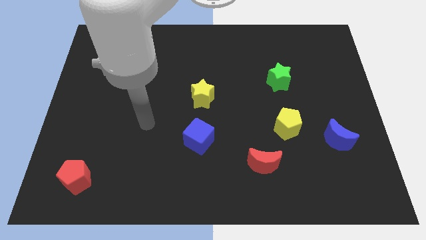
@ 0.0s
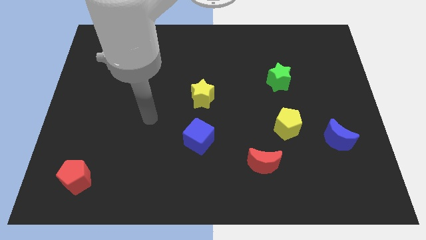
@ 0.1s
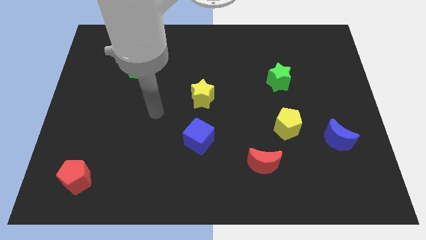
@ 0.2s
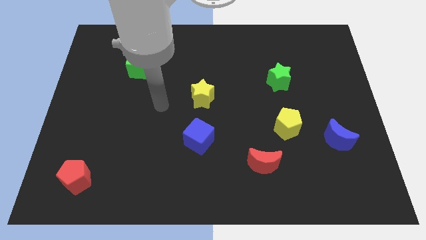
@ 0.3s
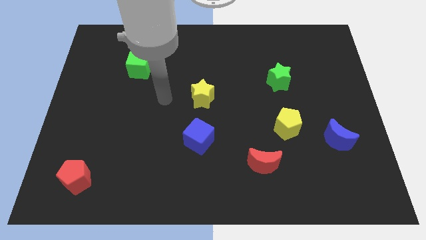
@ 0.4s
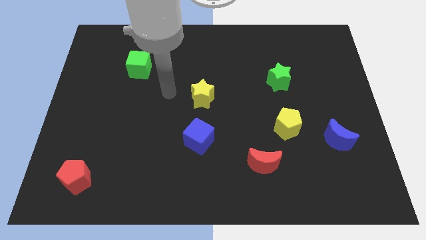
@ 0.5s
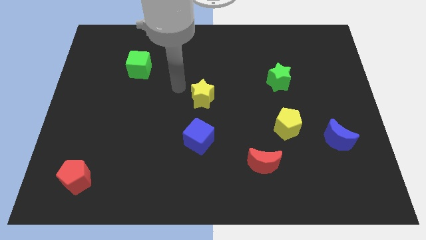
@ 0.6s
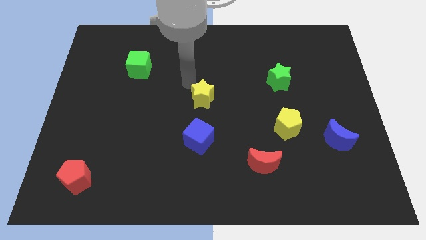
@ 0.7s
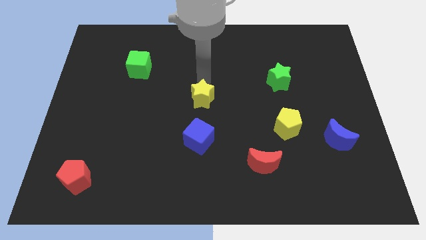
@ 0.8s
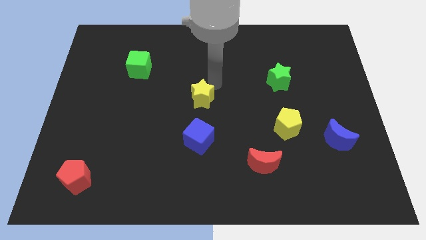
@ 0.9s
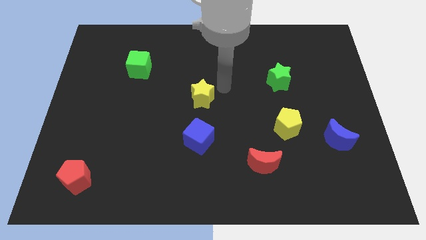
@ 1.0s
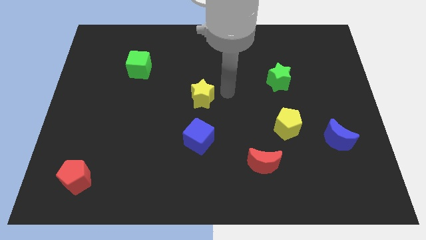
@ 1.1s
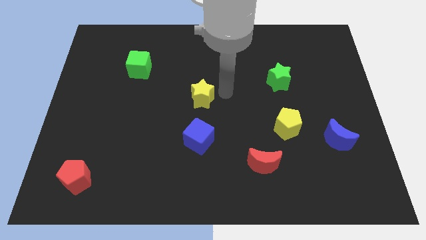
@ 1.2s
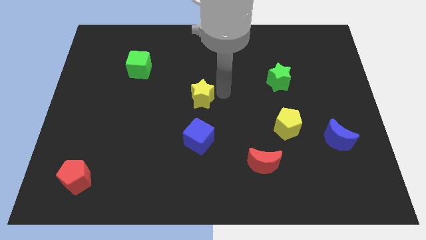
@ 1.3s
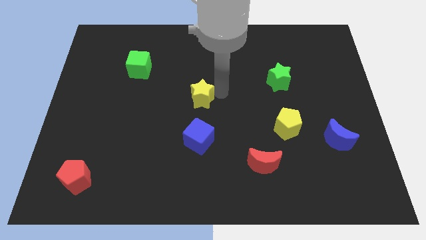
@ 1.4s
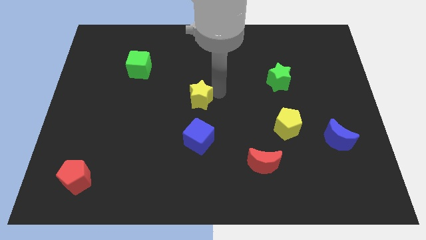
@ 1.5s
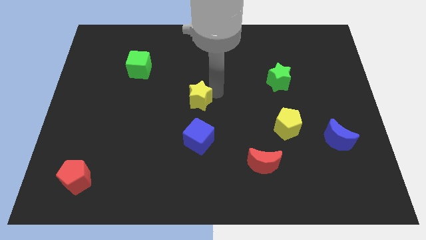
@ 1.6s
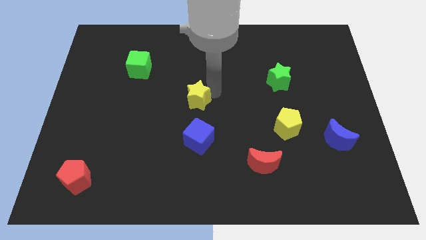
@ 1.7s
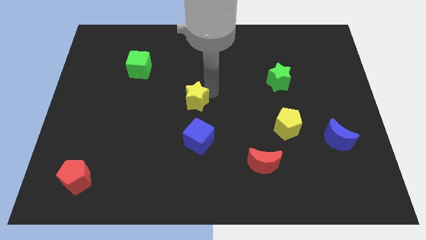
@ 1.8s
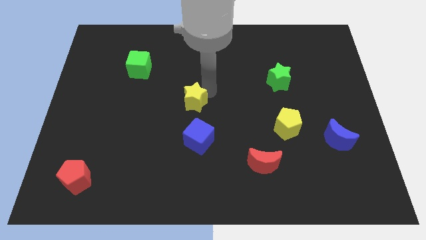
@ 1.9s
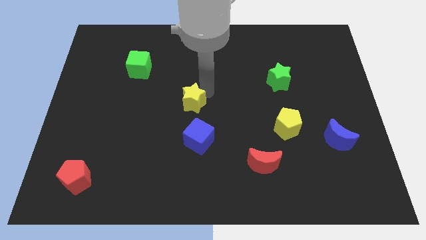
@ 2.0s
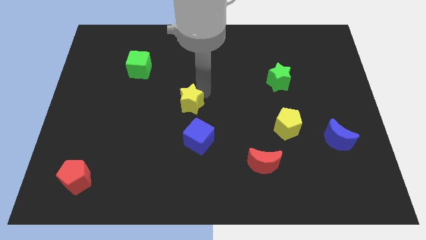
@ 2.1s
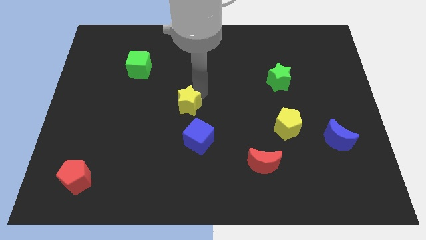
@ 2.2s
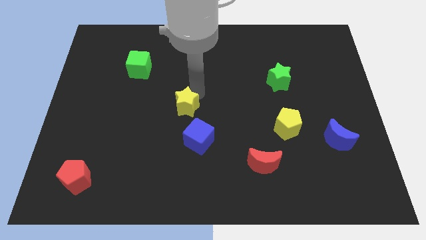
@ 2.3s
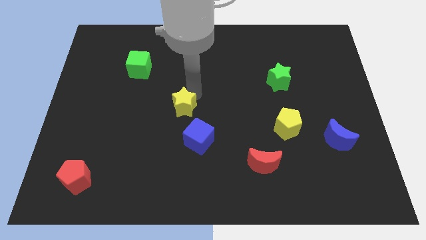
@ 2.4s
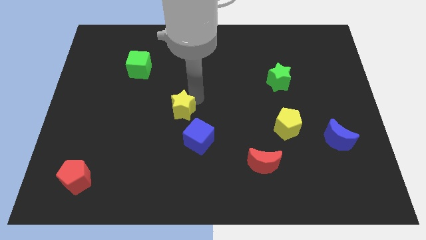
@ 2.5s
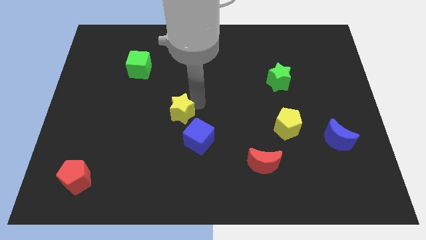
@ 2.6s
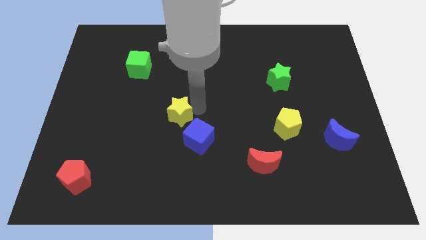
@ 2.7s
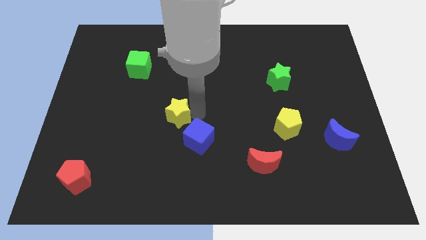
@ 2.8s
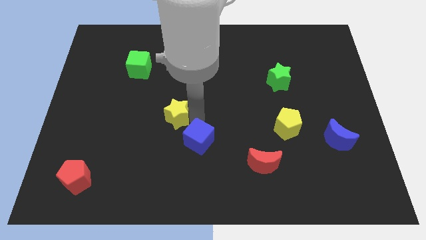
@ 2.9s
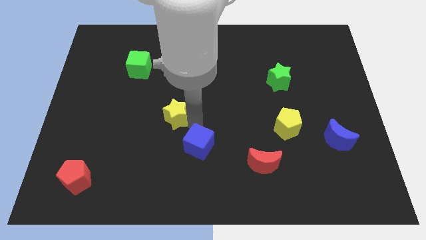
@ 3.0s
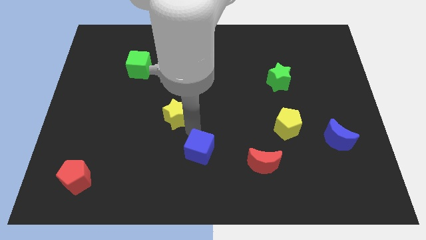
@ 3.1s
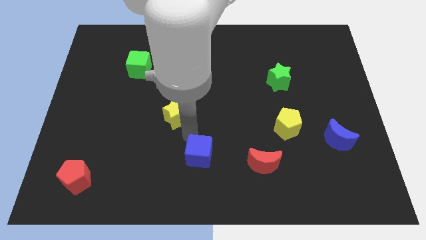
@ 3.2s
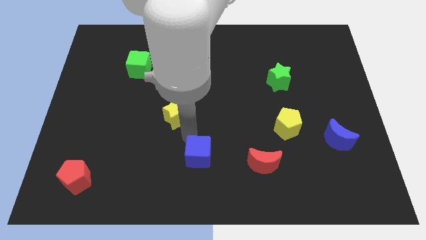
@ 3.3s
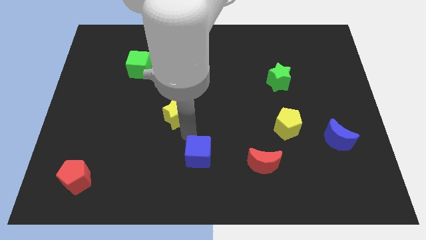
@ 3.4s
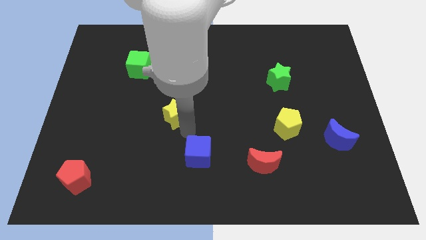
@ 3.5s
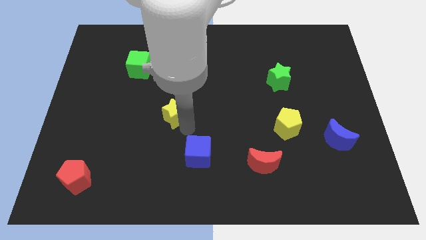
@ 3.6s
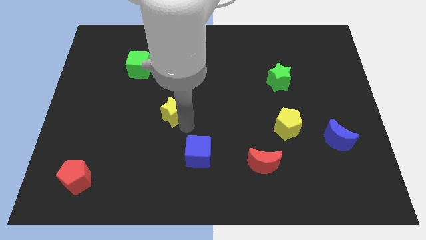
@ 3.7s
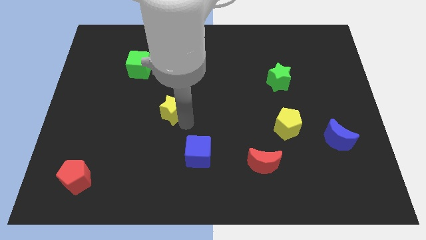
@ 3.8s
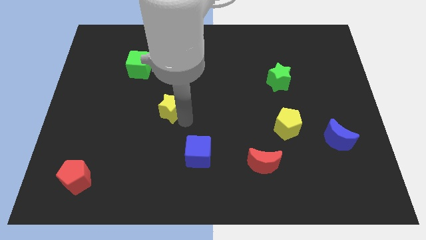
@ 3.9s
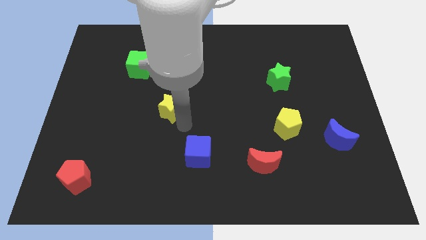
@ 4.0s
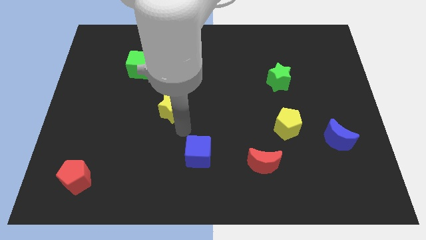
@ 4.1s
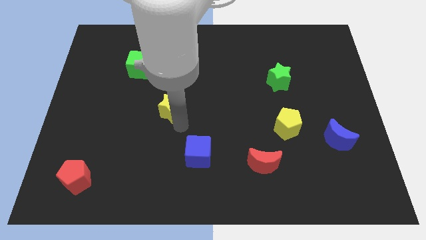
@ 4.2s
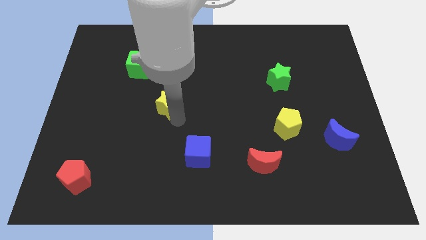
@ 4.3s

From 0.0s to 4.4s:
slightly slide the yellow star left

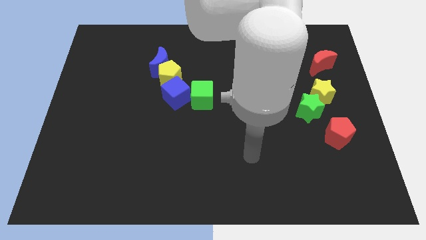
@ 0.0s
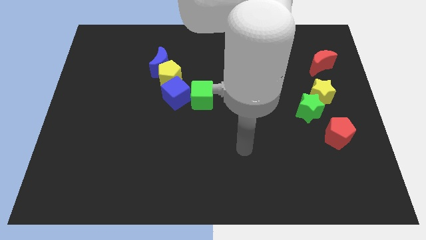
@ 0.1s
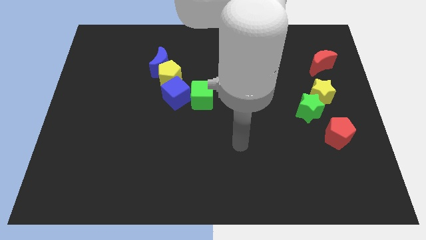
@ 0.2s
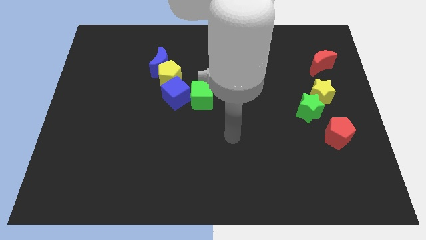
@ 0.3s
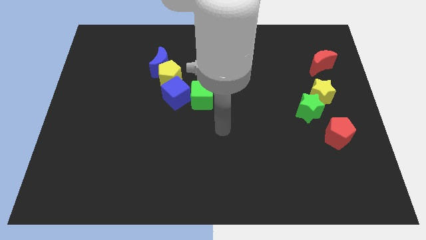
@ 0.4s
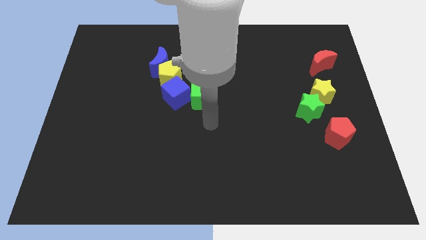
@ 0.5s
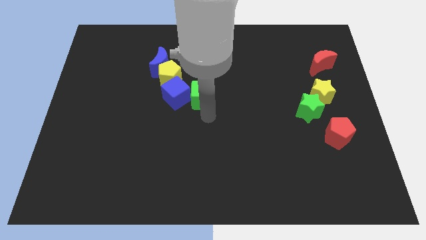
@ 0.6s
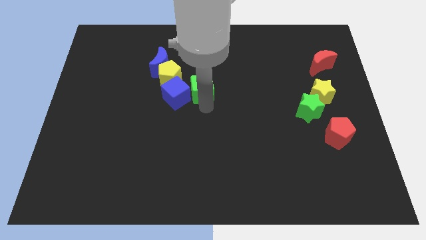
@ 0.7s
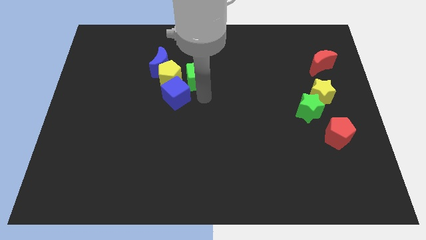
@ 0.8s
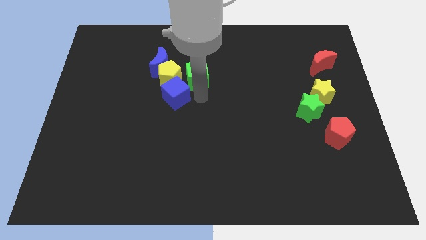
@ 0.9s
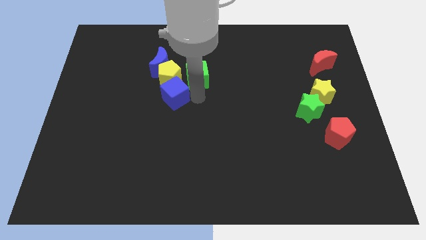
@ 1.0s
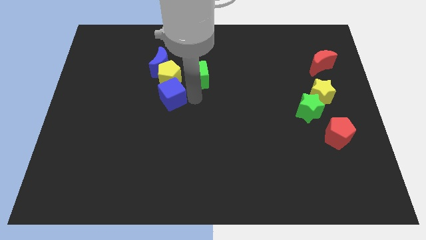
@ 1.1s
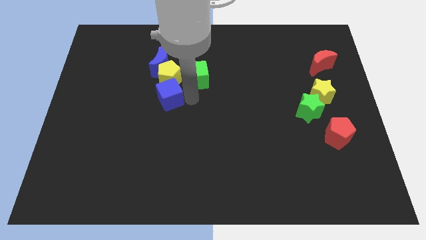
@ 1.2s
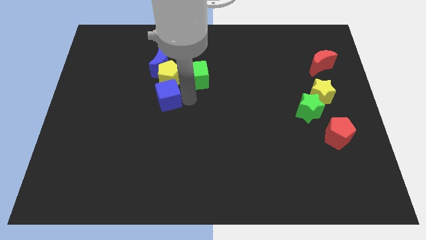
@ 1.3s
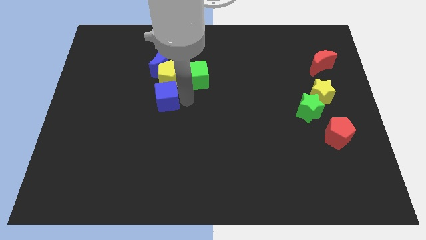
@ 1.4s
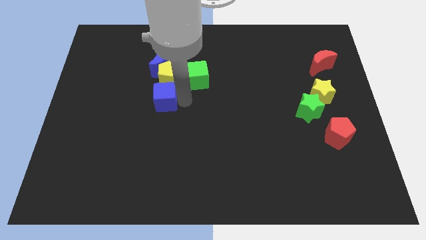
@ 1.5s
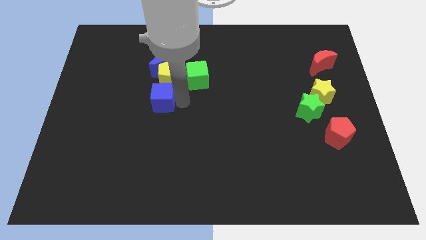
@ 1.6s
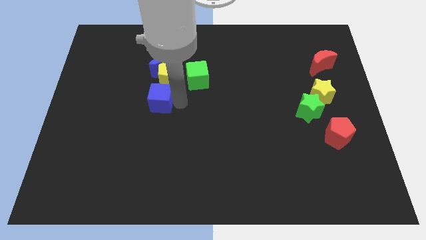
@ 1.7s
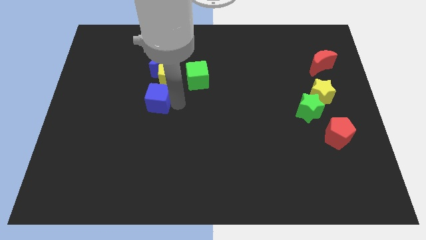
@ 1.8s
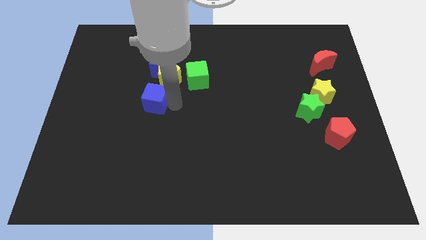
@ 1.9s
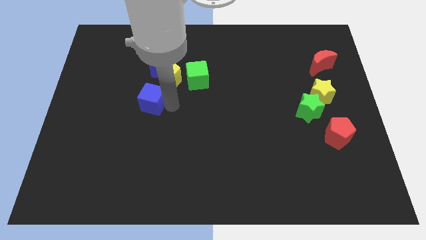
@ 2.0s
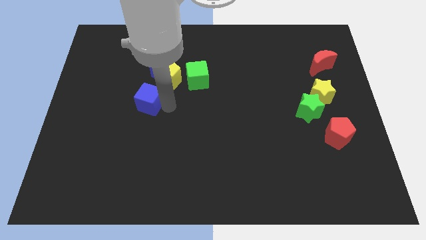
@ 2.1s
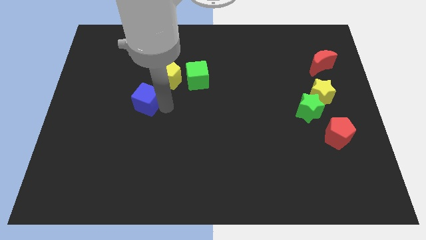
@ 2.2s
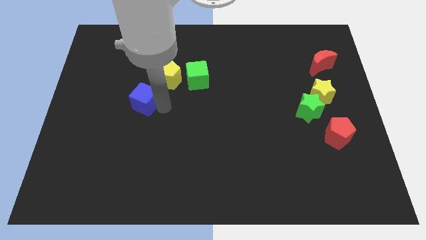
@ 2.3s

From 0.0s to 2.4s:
move the blue cube slightly to the left

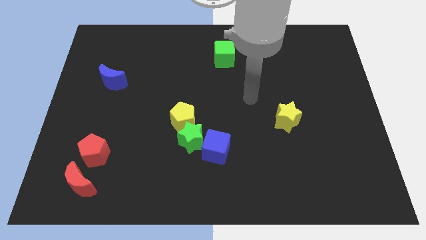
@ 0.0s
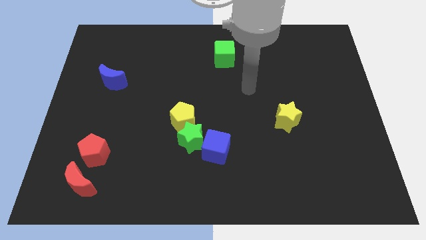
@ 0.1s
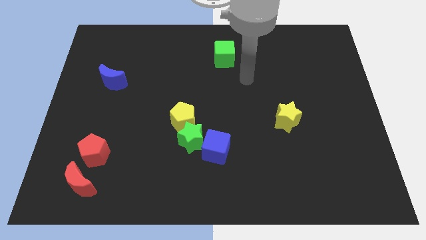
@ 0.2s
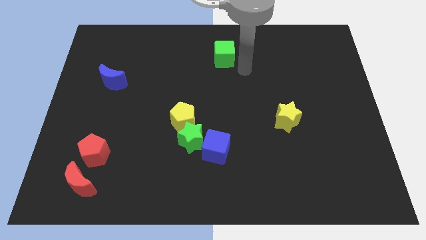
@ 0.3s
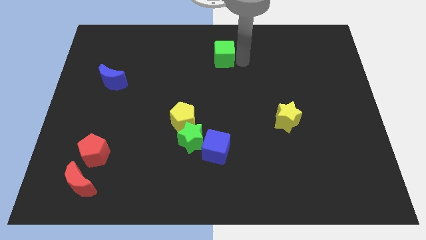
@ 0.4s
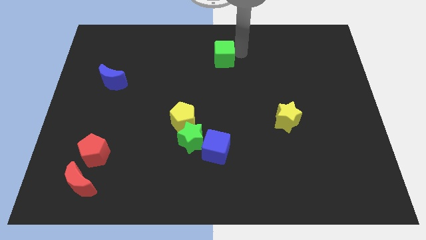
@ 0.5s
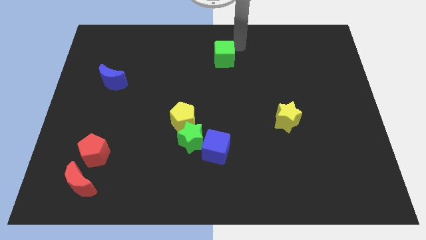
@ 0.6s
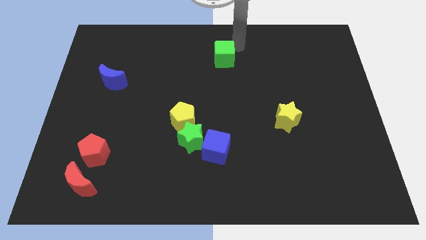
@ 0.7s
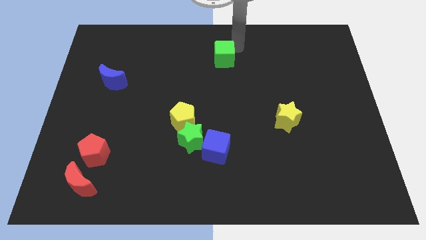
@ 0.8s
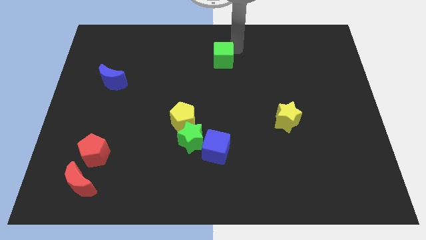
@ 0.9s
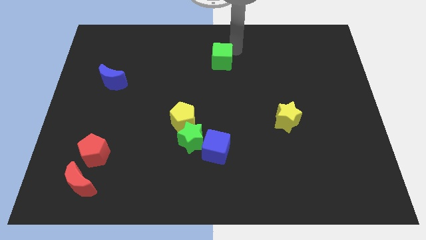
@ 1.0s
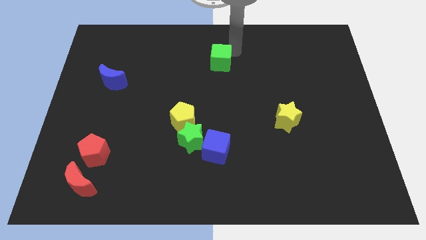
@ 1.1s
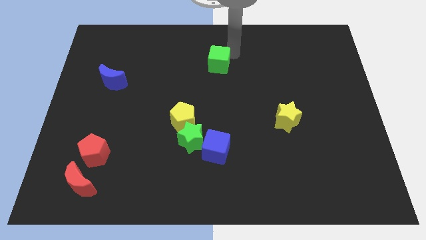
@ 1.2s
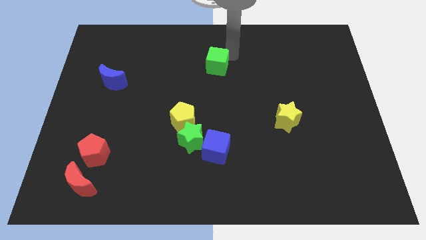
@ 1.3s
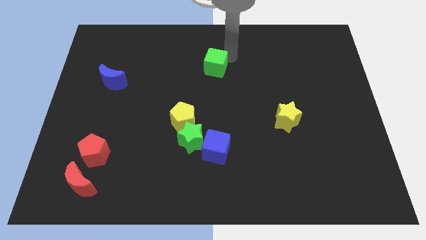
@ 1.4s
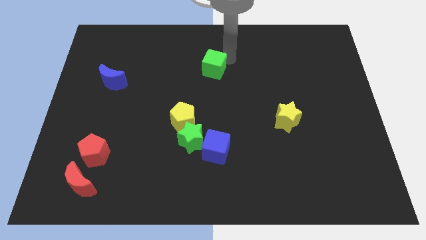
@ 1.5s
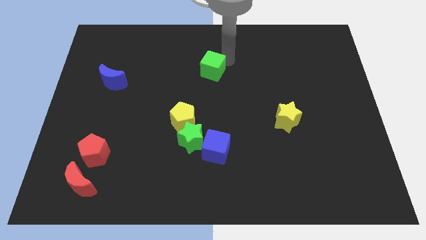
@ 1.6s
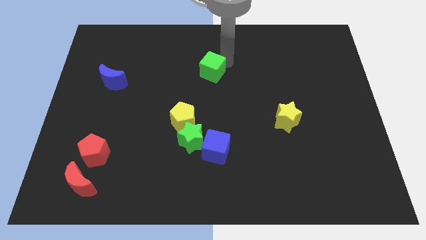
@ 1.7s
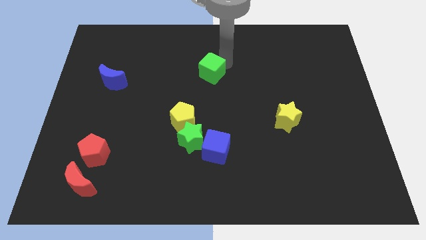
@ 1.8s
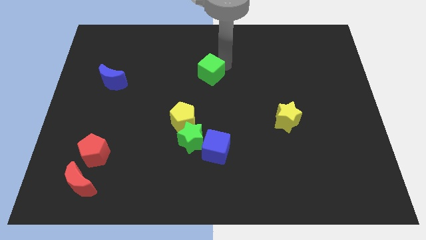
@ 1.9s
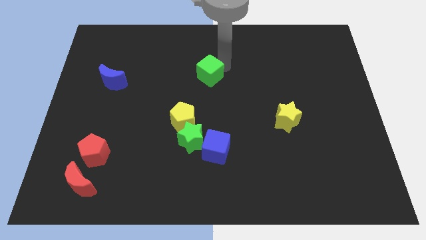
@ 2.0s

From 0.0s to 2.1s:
slightly push the green cube downwards and then to the left
